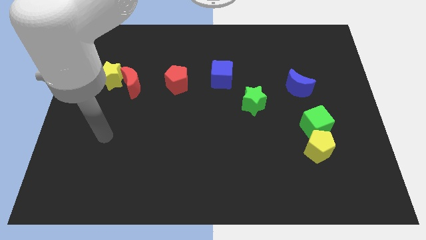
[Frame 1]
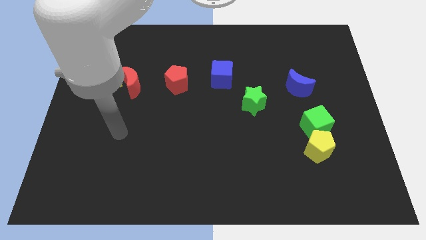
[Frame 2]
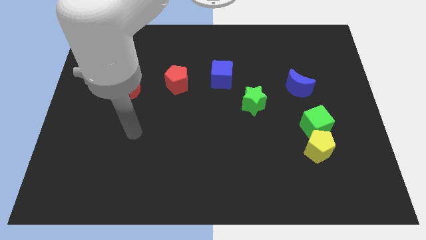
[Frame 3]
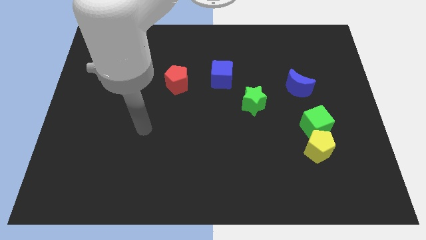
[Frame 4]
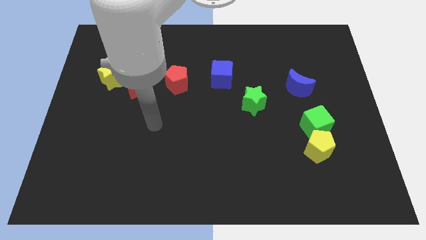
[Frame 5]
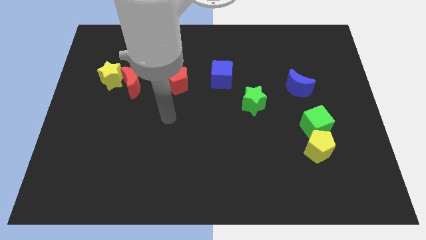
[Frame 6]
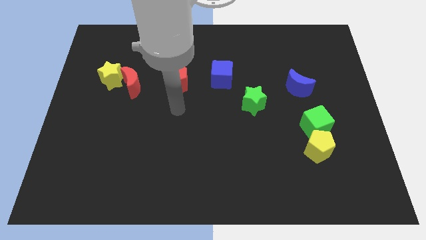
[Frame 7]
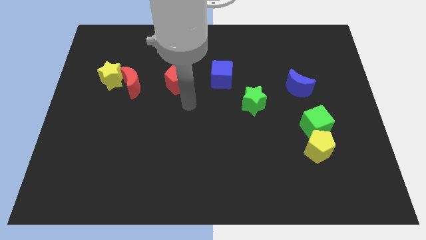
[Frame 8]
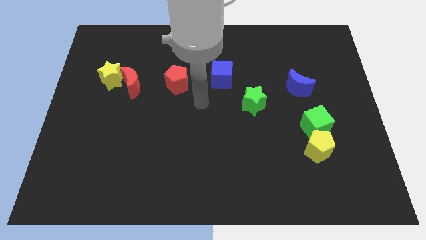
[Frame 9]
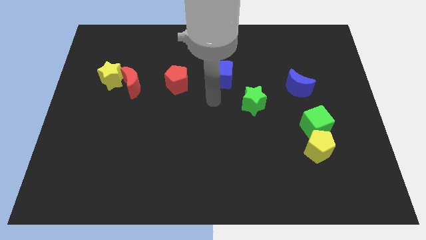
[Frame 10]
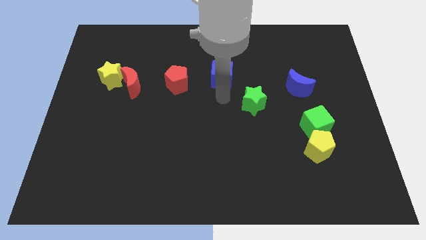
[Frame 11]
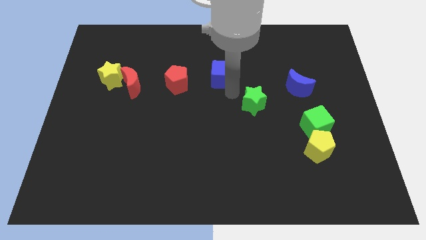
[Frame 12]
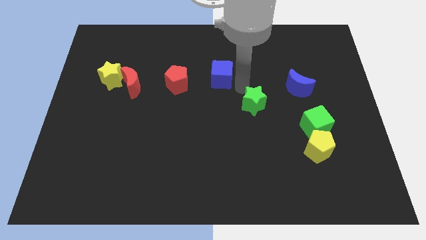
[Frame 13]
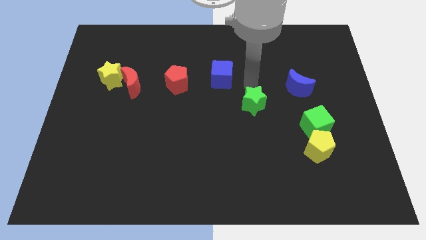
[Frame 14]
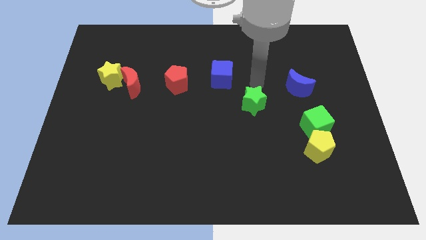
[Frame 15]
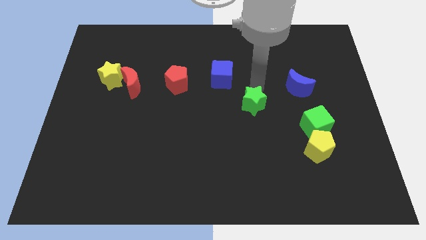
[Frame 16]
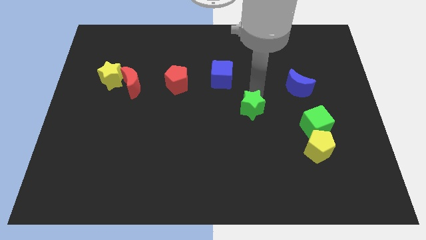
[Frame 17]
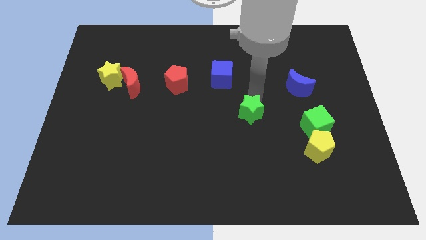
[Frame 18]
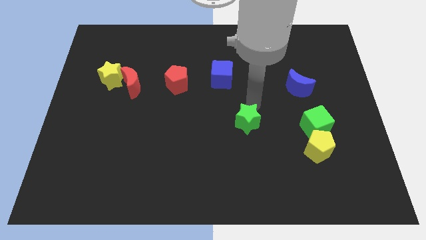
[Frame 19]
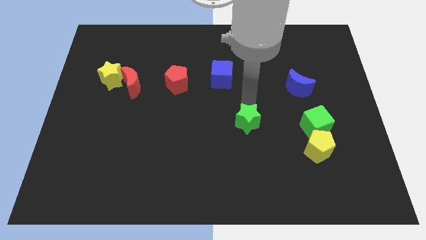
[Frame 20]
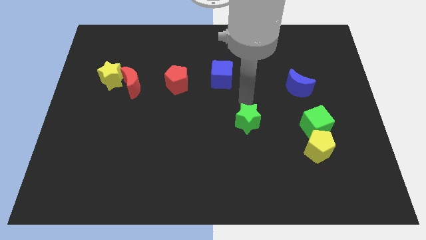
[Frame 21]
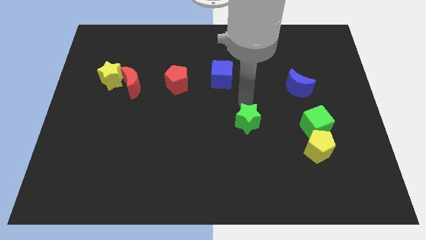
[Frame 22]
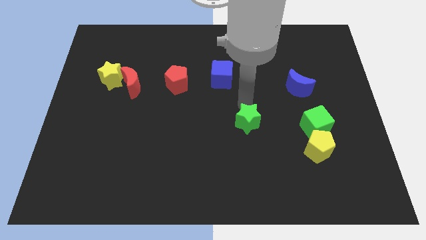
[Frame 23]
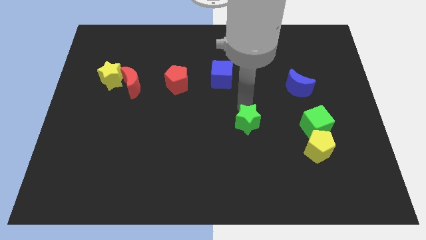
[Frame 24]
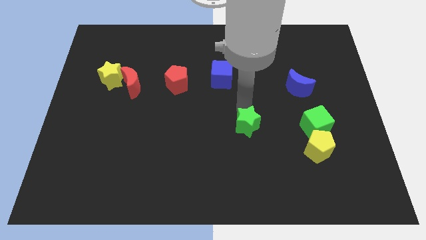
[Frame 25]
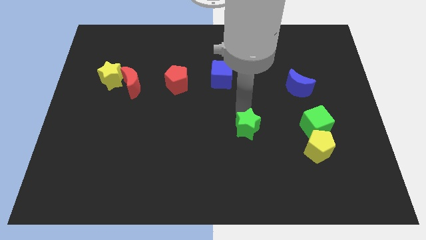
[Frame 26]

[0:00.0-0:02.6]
move the green star downwards somewhat

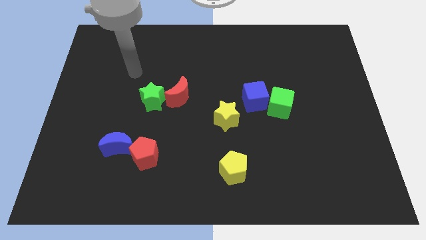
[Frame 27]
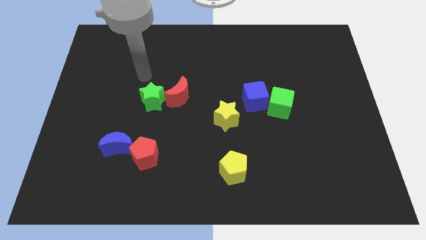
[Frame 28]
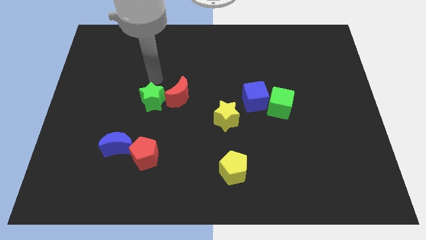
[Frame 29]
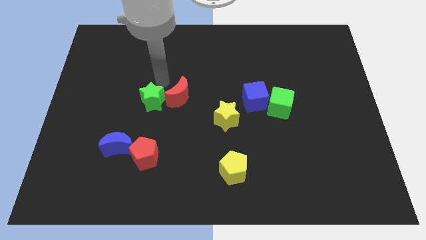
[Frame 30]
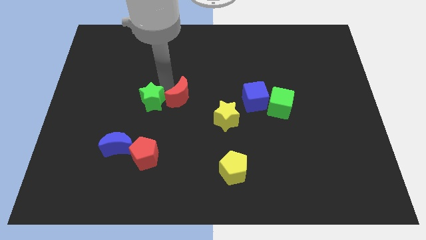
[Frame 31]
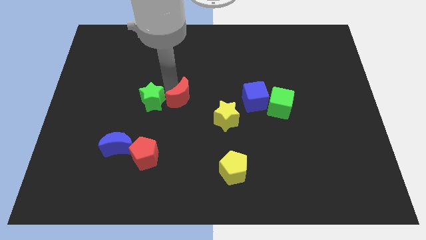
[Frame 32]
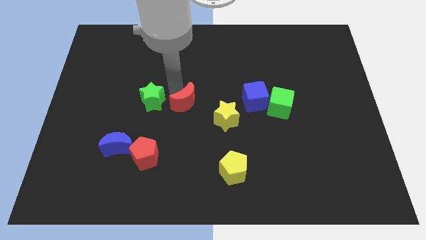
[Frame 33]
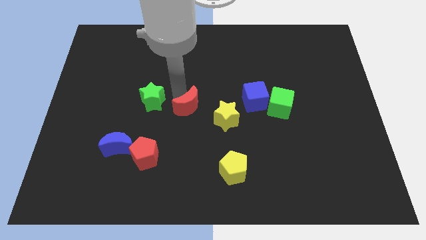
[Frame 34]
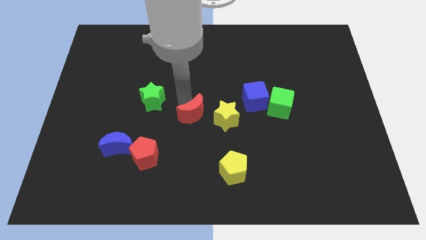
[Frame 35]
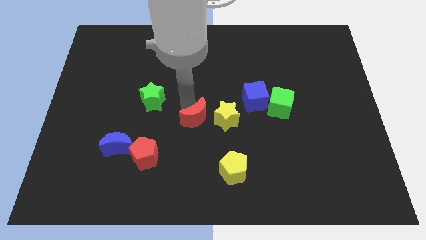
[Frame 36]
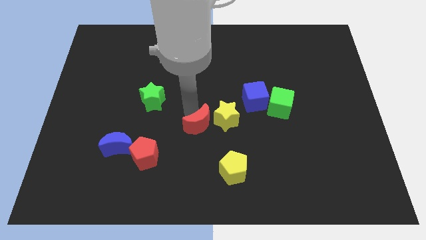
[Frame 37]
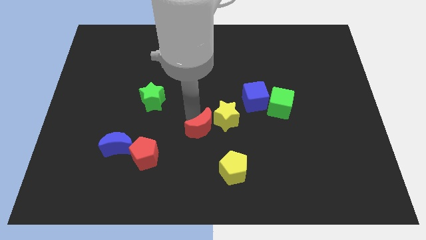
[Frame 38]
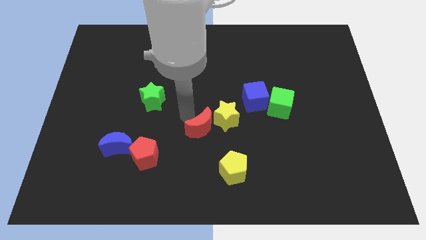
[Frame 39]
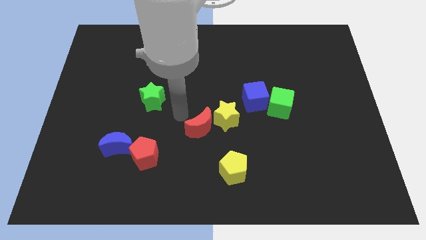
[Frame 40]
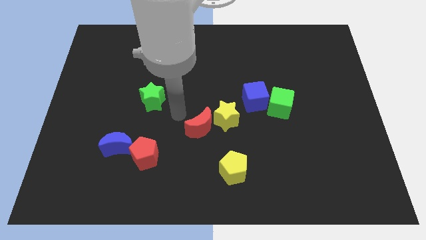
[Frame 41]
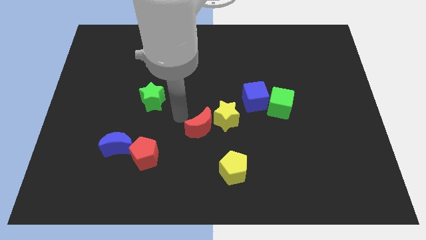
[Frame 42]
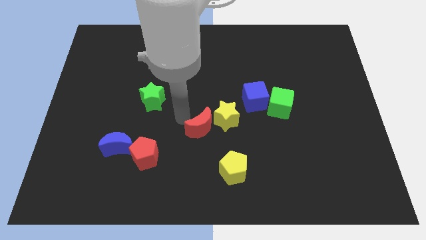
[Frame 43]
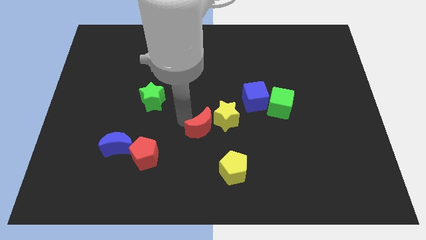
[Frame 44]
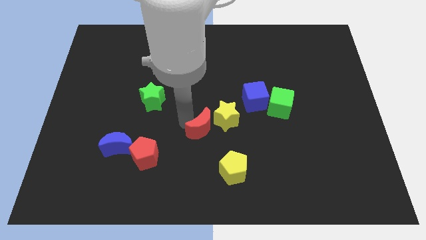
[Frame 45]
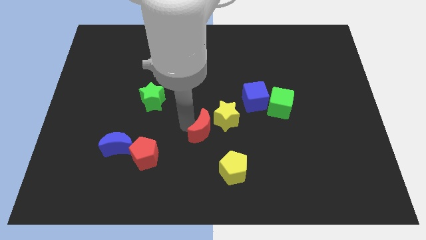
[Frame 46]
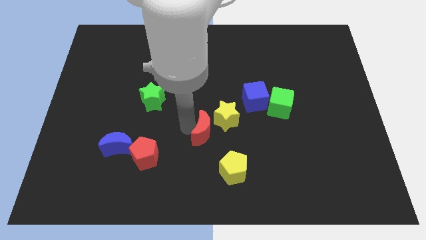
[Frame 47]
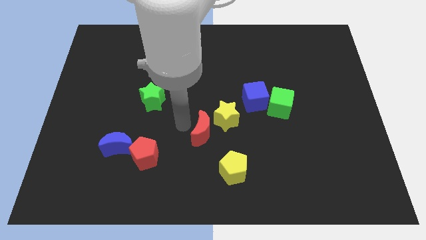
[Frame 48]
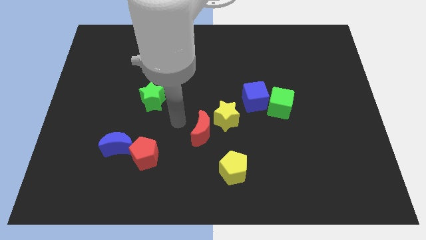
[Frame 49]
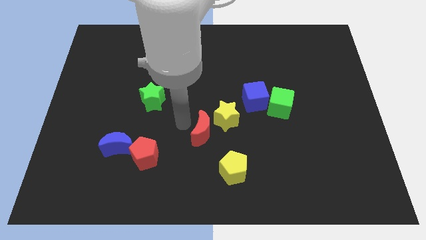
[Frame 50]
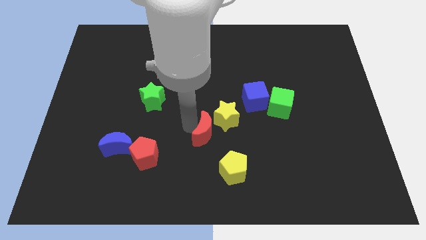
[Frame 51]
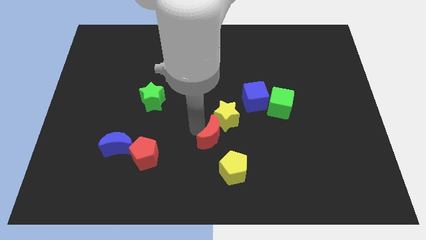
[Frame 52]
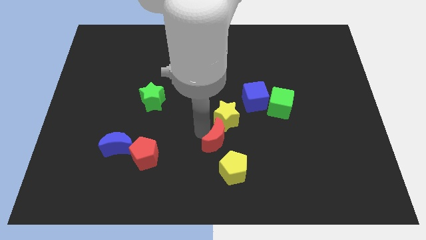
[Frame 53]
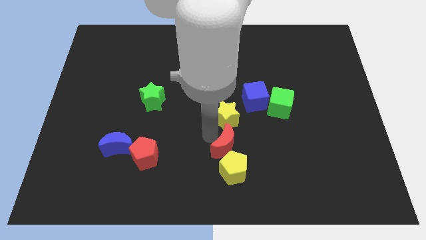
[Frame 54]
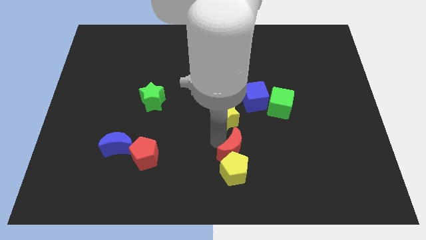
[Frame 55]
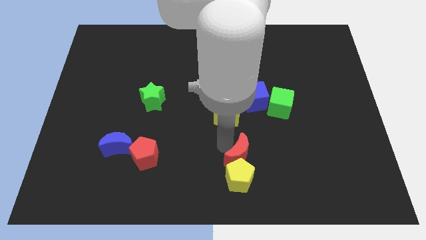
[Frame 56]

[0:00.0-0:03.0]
slide the red moon down and then right

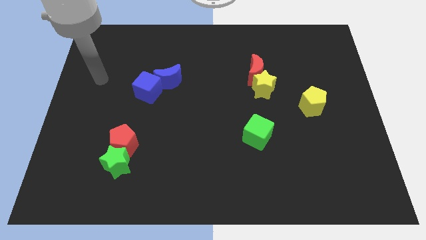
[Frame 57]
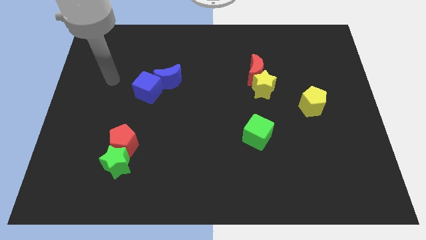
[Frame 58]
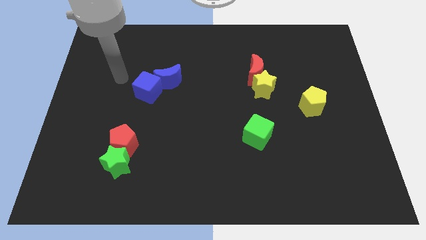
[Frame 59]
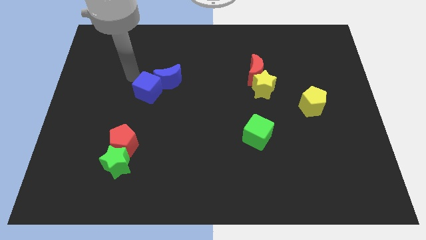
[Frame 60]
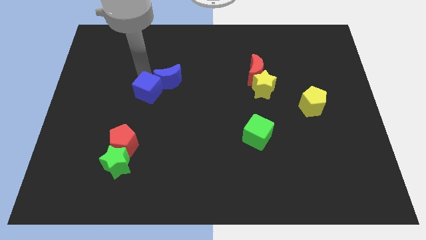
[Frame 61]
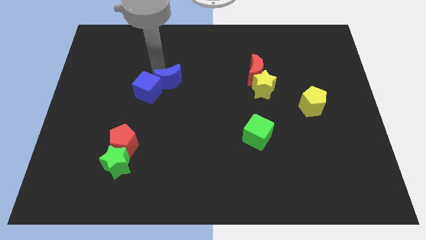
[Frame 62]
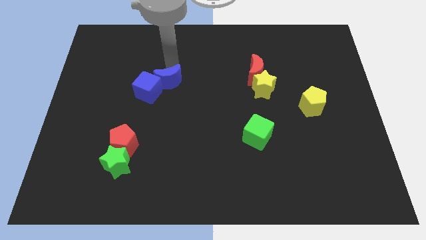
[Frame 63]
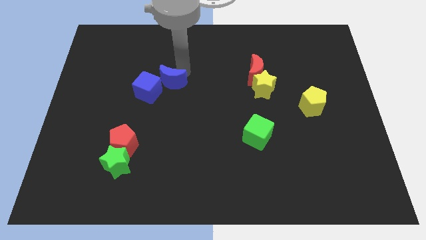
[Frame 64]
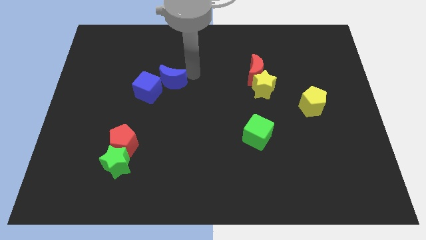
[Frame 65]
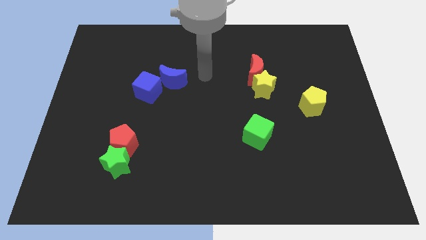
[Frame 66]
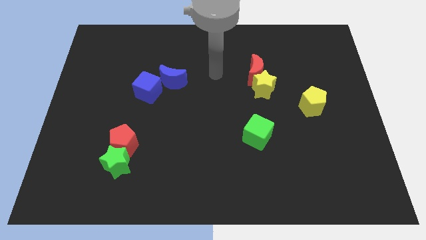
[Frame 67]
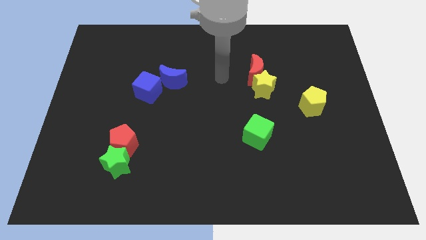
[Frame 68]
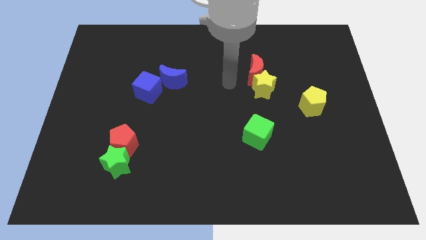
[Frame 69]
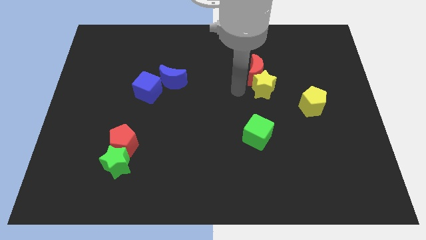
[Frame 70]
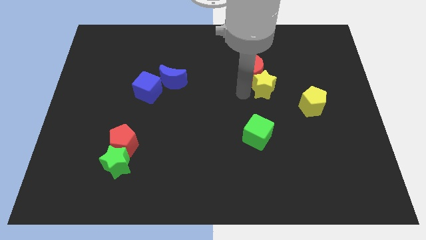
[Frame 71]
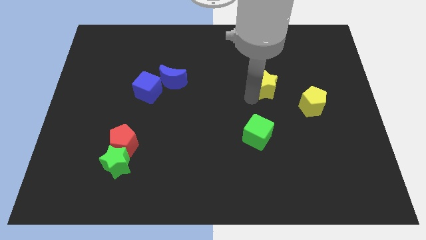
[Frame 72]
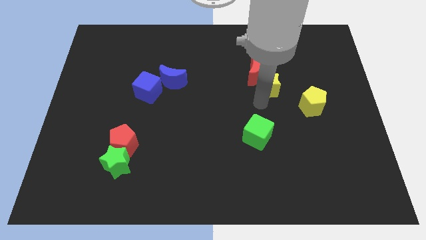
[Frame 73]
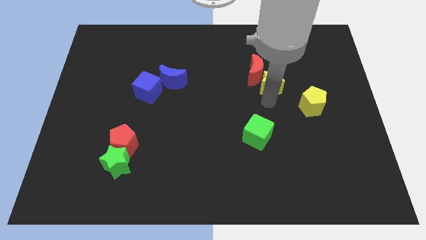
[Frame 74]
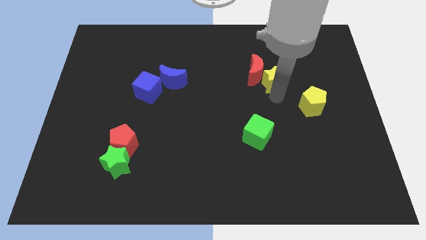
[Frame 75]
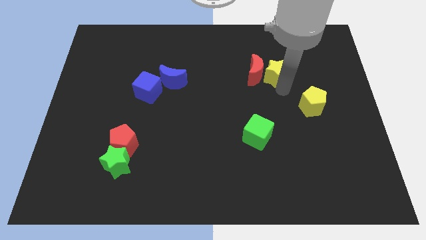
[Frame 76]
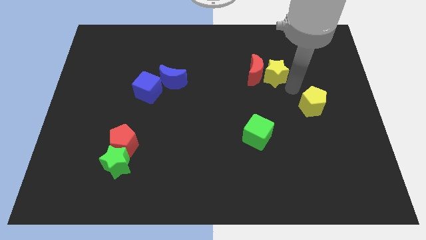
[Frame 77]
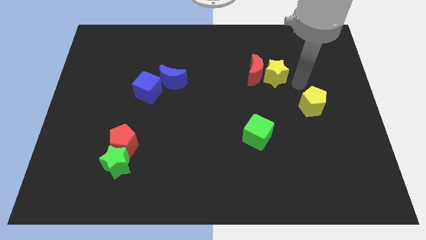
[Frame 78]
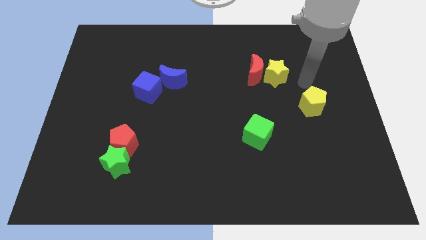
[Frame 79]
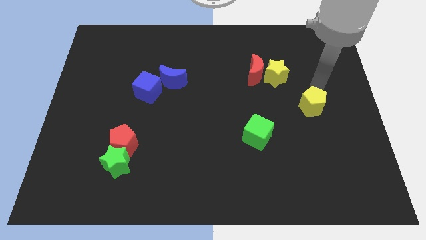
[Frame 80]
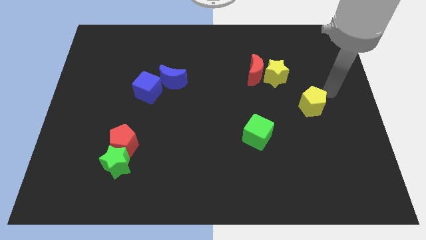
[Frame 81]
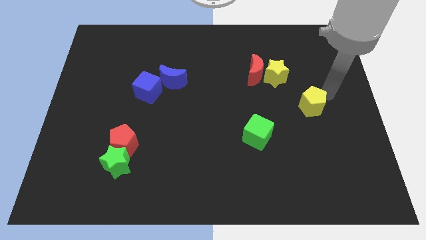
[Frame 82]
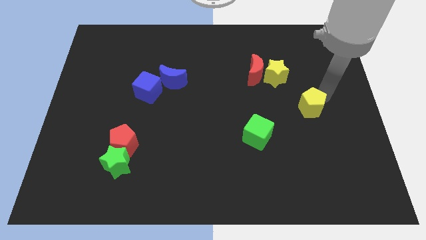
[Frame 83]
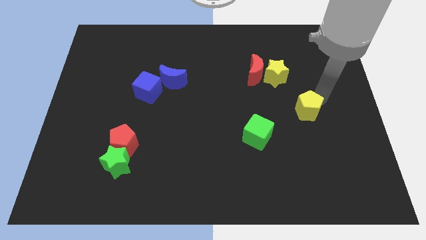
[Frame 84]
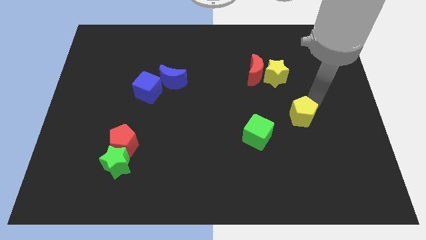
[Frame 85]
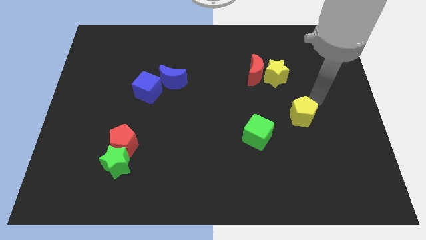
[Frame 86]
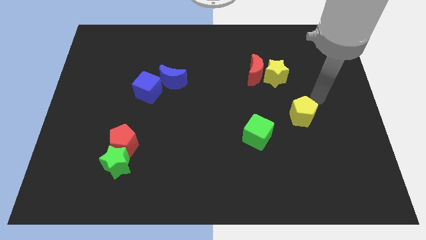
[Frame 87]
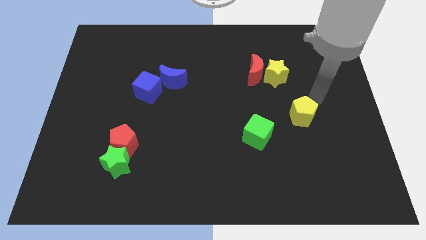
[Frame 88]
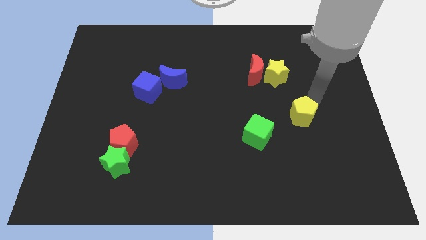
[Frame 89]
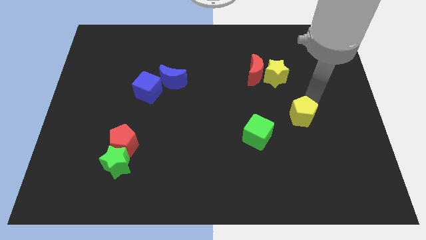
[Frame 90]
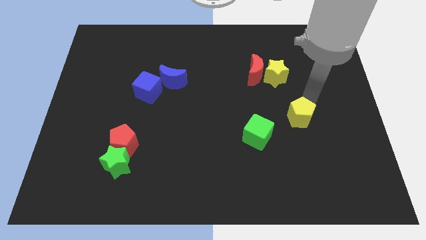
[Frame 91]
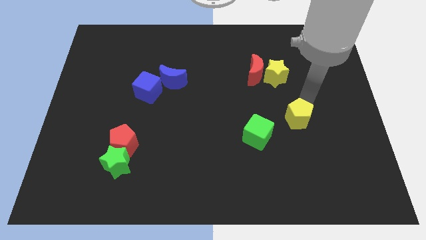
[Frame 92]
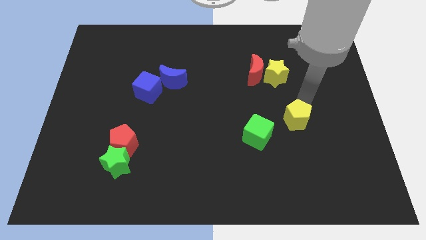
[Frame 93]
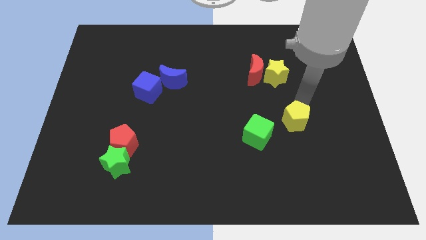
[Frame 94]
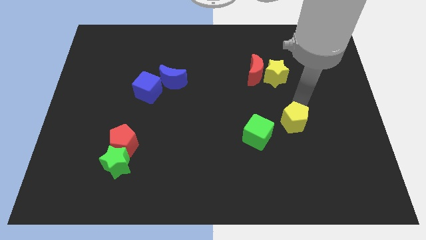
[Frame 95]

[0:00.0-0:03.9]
slightly push the yellow pentagon downwards and then to the left
